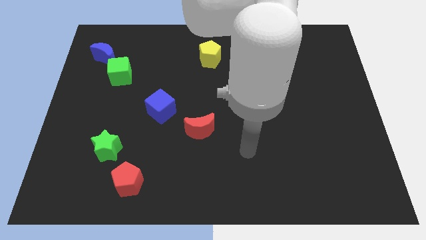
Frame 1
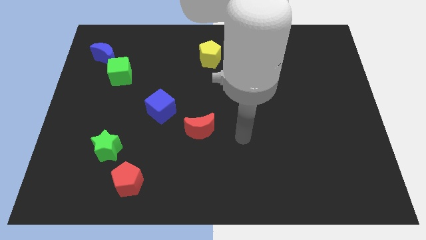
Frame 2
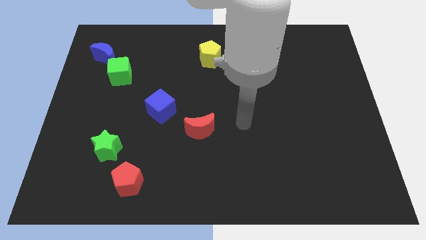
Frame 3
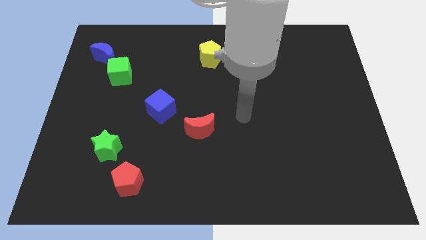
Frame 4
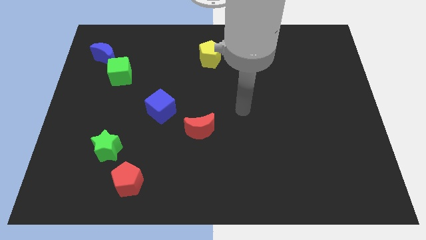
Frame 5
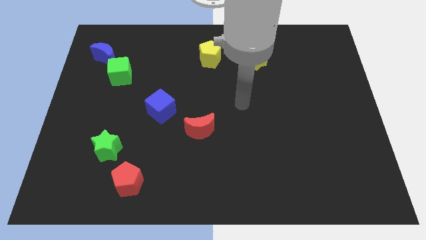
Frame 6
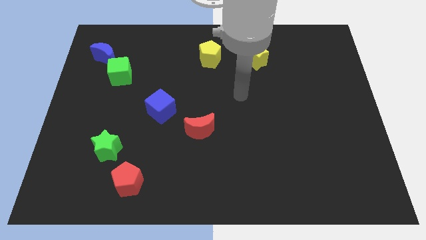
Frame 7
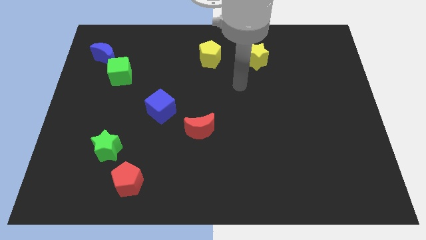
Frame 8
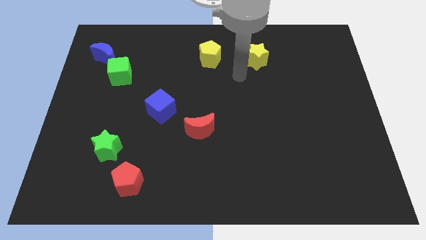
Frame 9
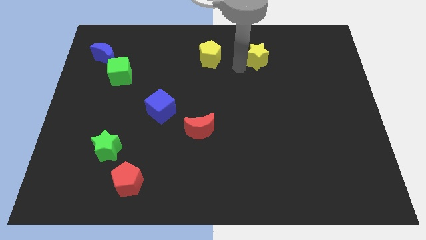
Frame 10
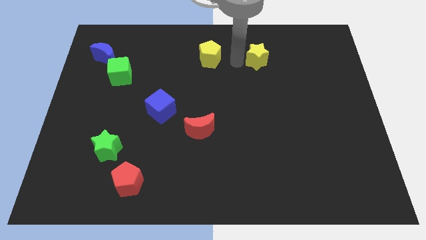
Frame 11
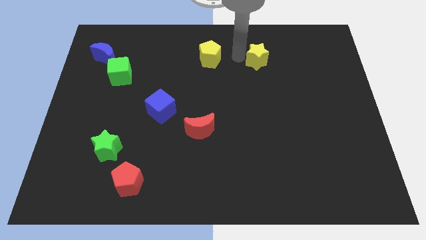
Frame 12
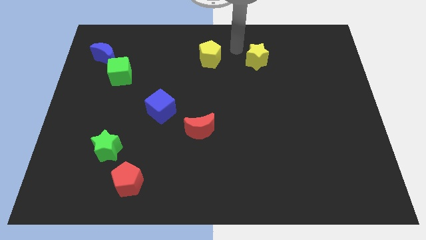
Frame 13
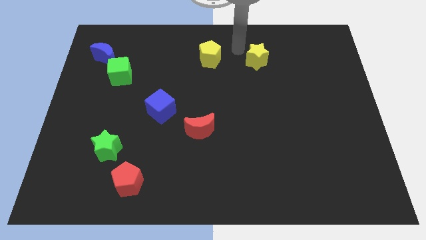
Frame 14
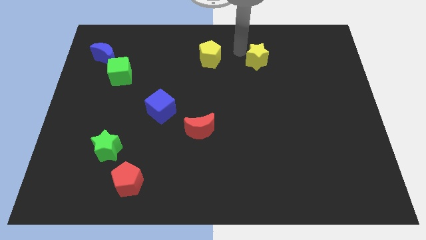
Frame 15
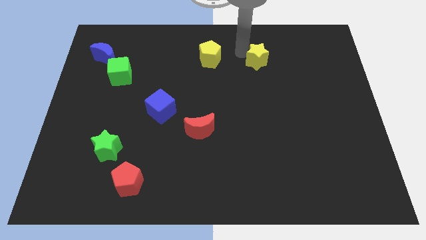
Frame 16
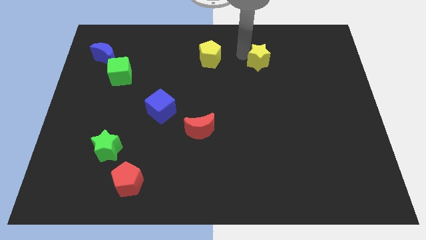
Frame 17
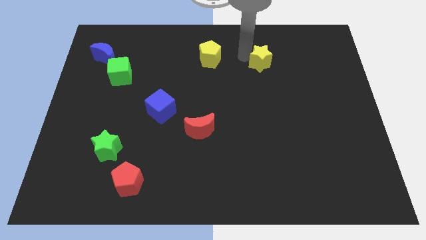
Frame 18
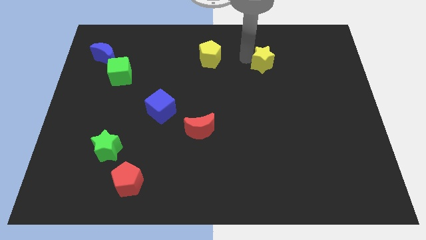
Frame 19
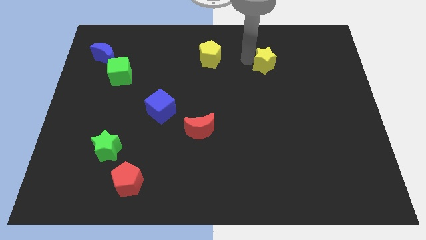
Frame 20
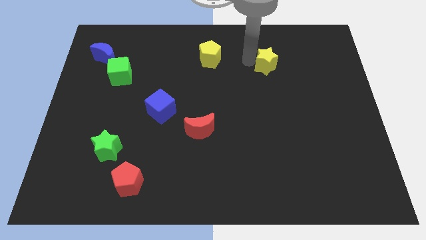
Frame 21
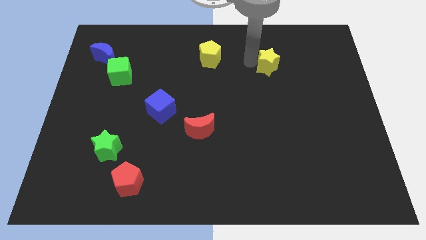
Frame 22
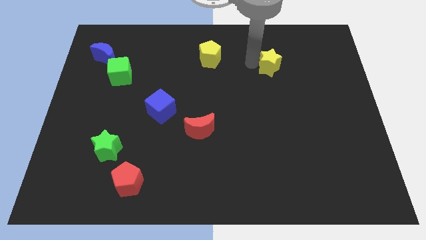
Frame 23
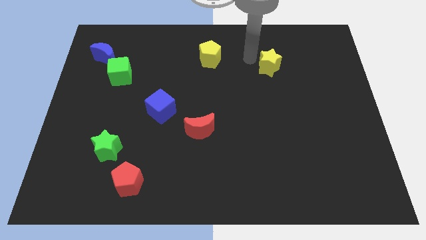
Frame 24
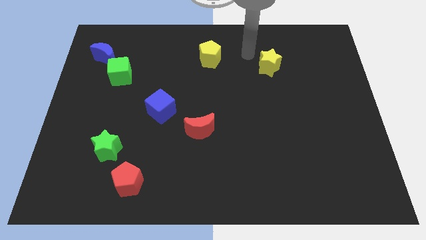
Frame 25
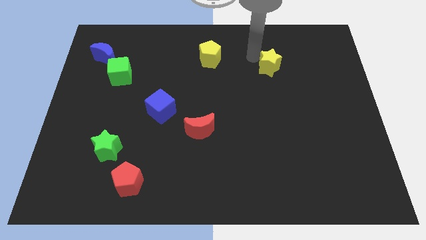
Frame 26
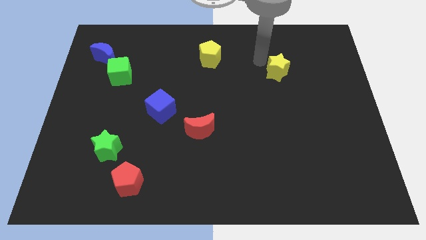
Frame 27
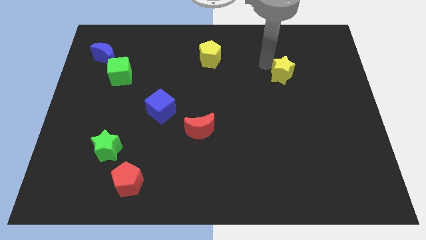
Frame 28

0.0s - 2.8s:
move the yellow star somewhat diagonally down and right

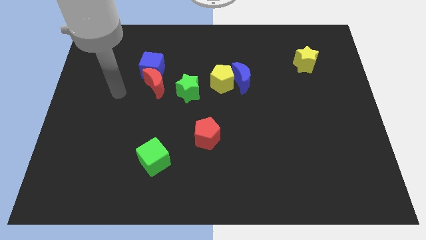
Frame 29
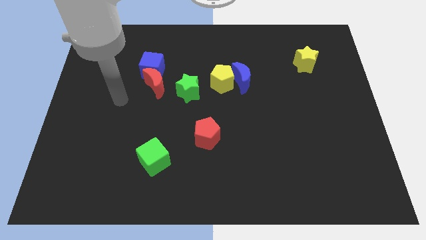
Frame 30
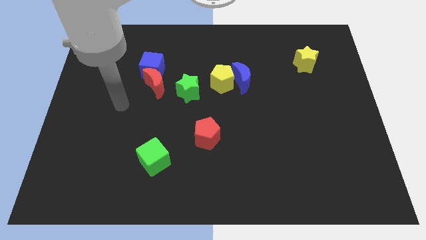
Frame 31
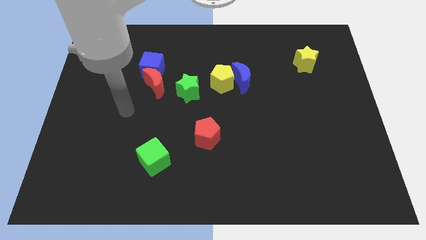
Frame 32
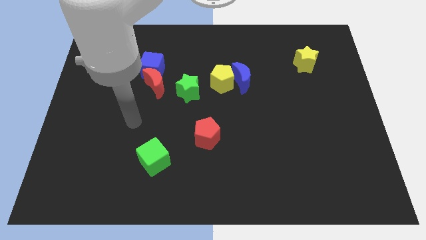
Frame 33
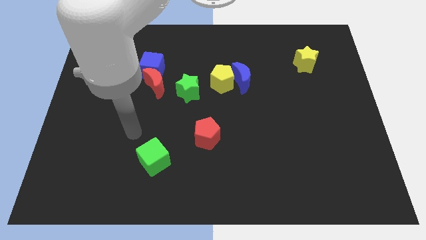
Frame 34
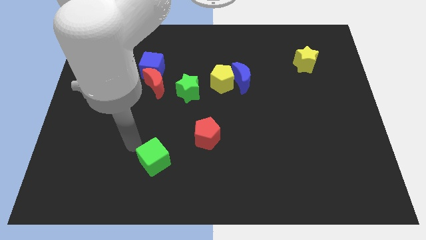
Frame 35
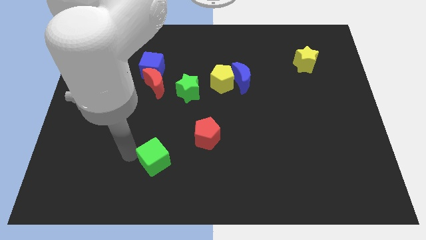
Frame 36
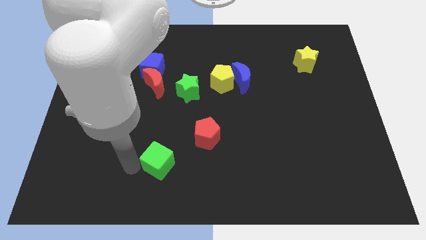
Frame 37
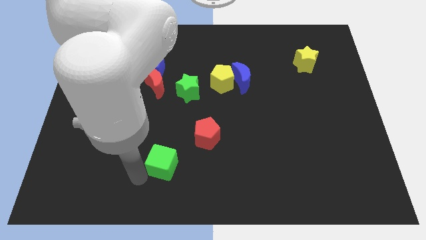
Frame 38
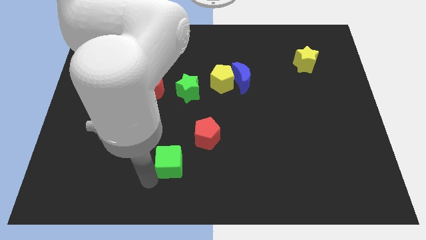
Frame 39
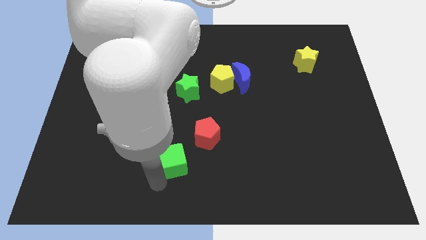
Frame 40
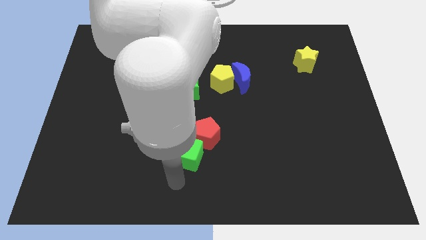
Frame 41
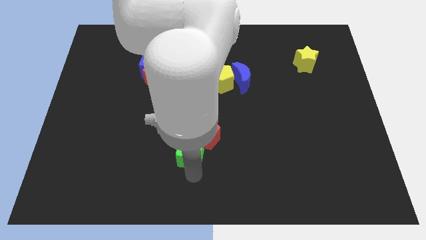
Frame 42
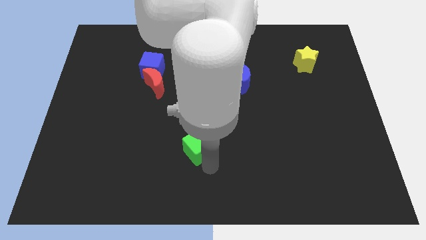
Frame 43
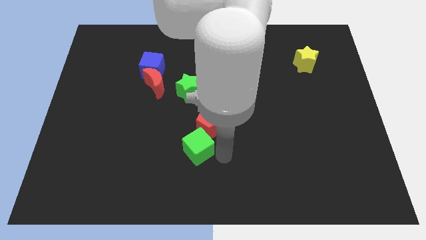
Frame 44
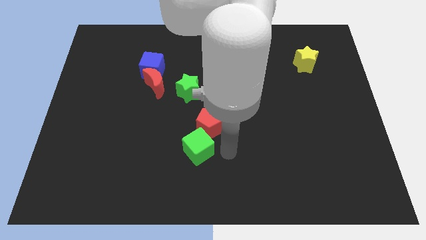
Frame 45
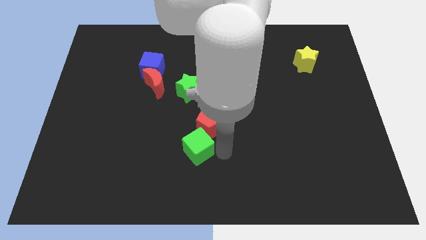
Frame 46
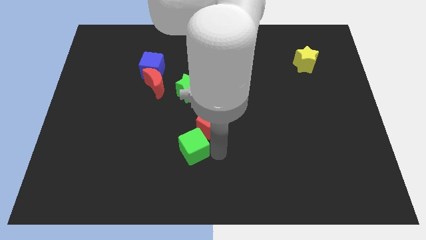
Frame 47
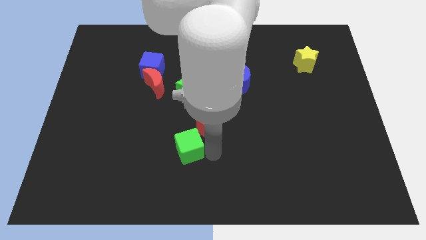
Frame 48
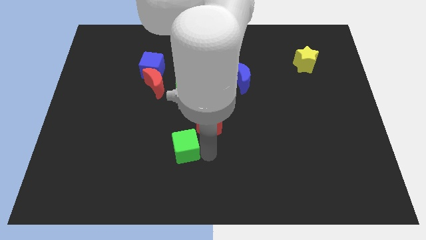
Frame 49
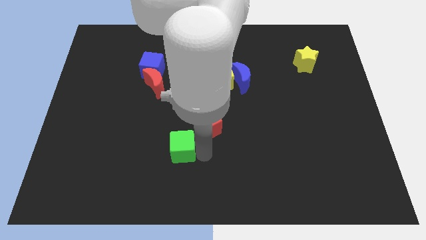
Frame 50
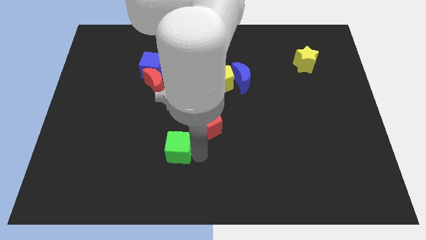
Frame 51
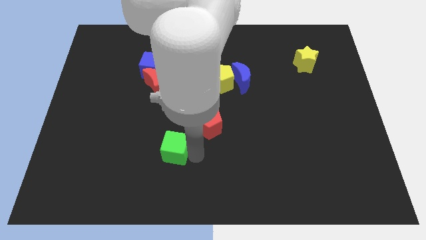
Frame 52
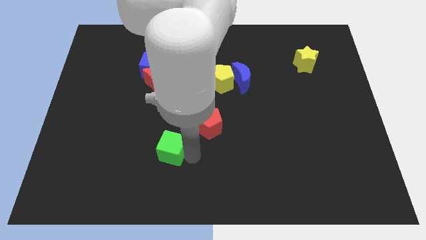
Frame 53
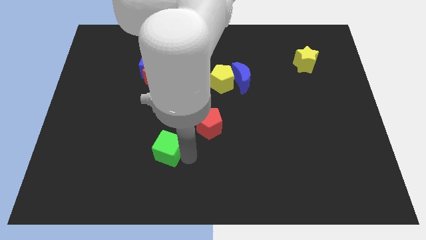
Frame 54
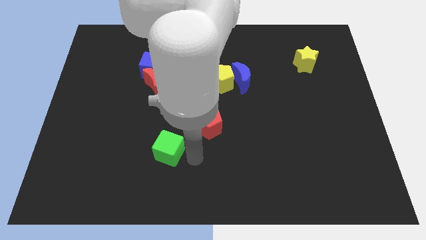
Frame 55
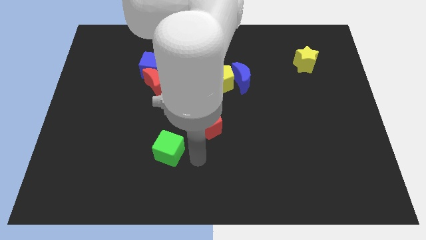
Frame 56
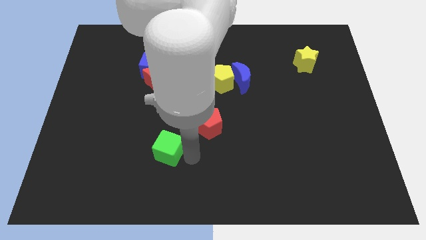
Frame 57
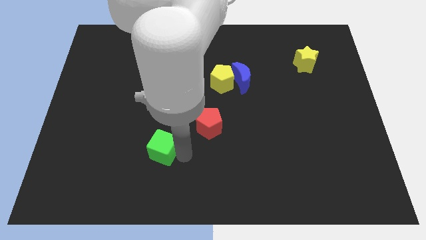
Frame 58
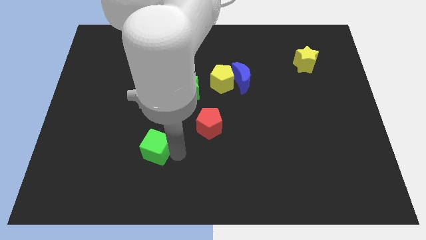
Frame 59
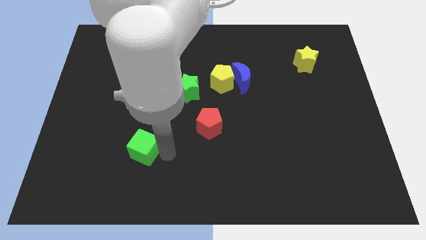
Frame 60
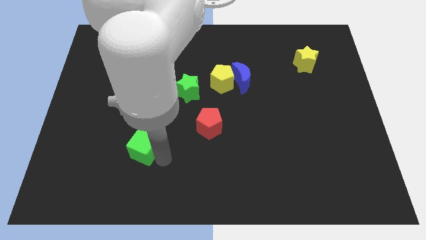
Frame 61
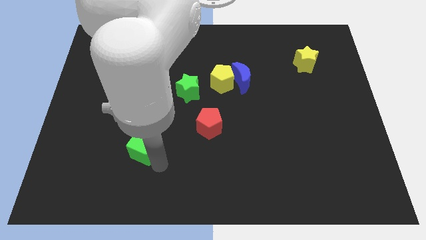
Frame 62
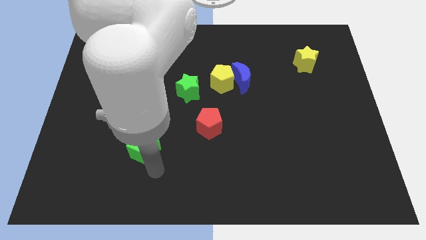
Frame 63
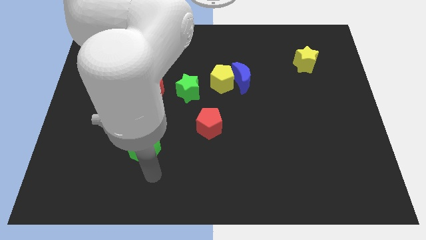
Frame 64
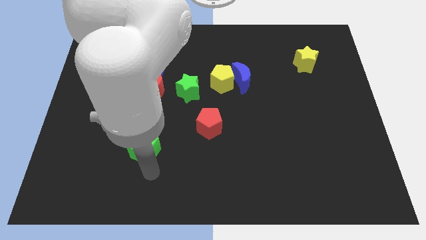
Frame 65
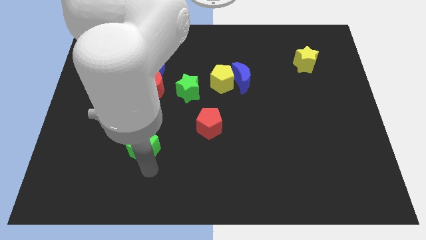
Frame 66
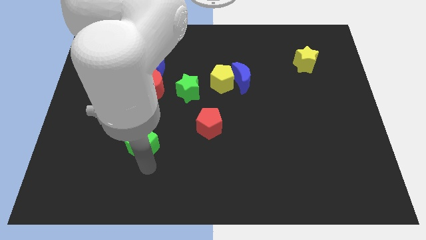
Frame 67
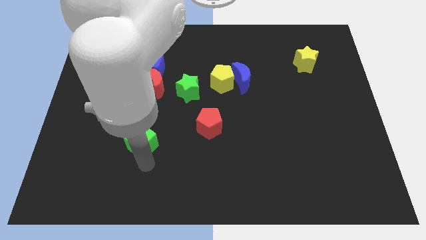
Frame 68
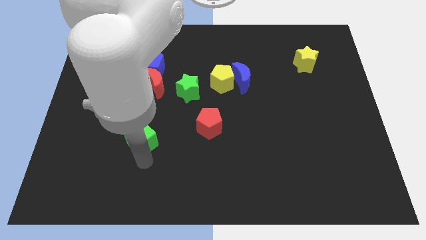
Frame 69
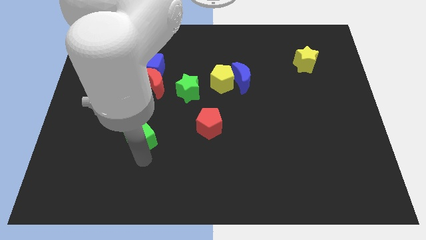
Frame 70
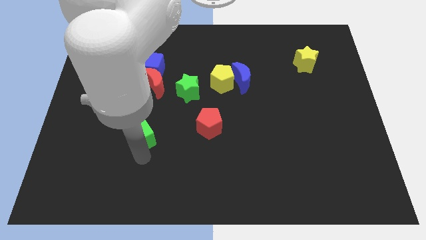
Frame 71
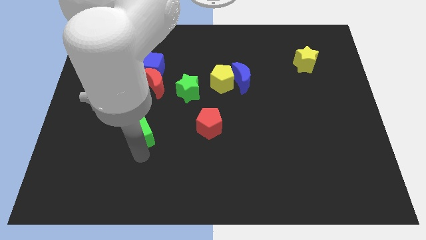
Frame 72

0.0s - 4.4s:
slide the green cube somewhat upwards and to the left

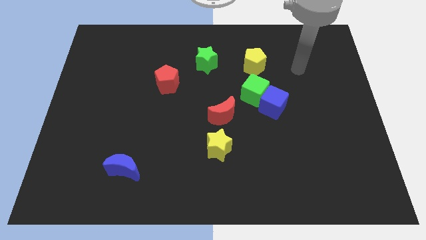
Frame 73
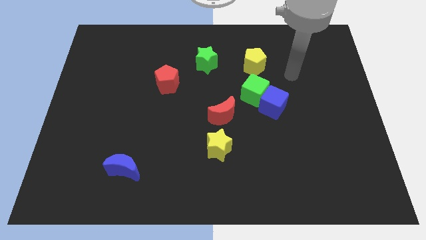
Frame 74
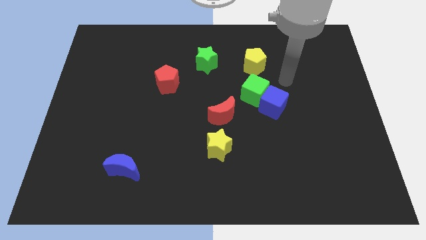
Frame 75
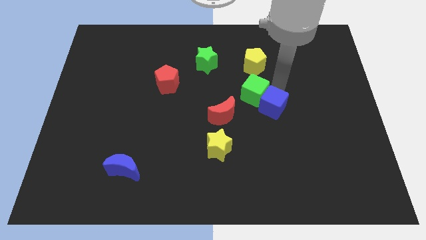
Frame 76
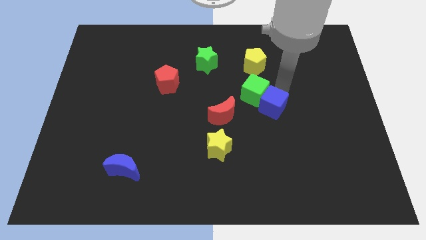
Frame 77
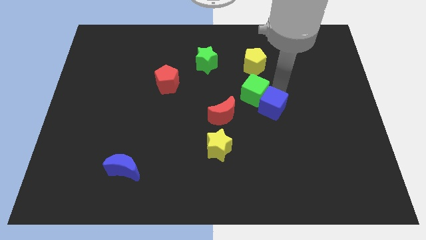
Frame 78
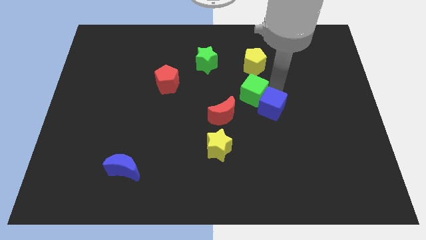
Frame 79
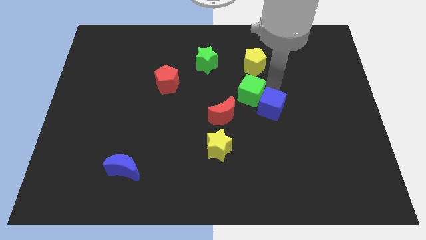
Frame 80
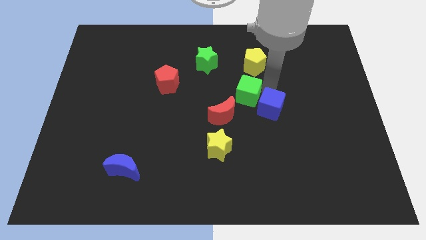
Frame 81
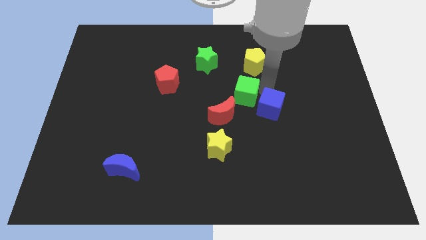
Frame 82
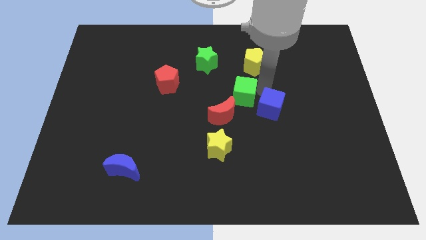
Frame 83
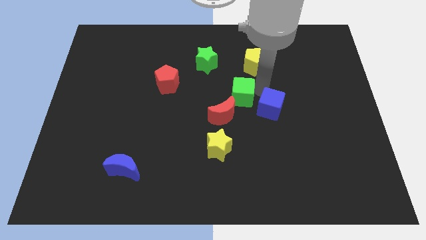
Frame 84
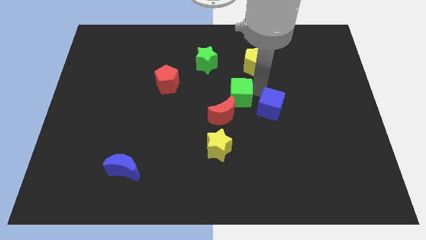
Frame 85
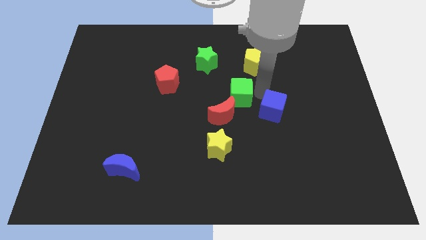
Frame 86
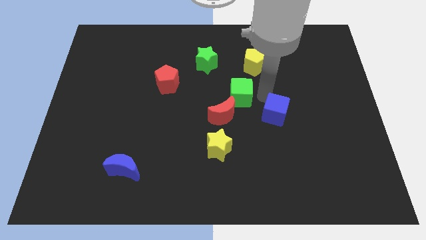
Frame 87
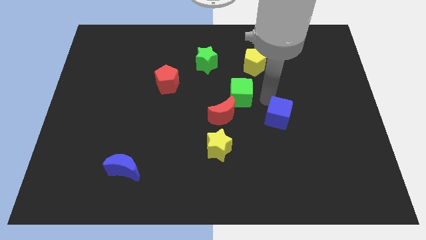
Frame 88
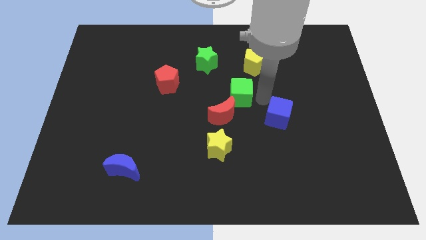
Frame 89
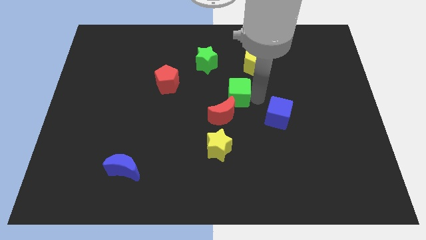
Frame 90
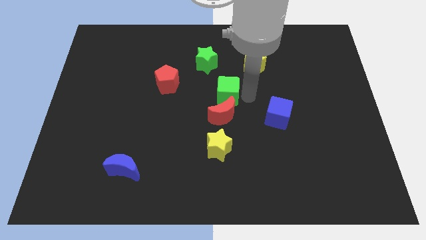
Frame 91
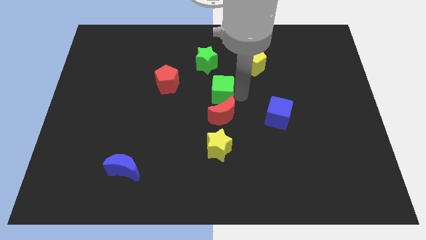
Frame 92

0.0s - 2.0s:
slightly push the green cube to the left
